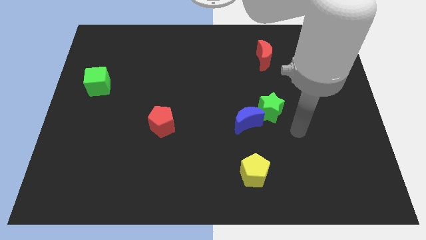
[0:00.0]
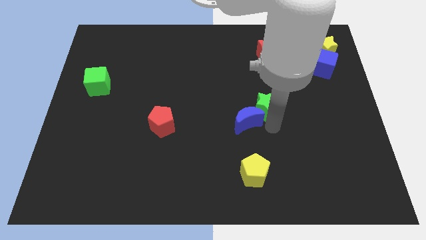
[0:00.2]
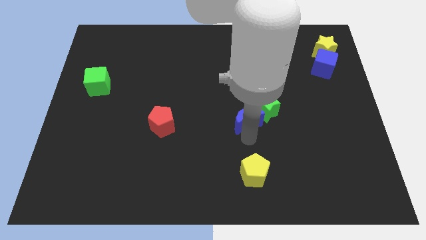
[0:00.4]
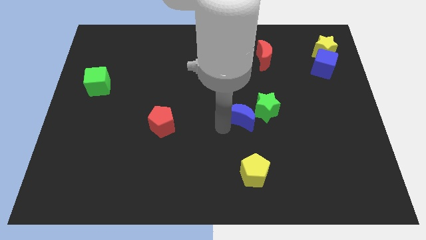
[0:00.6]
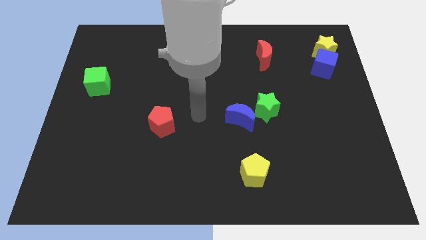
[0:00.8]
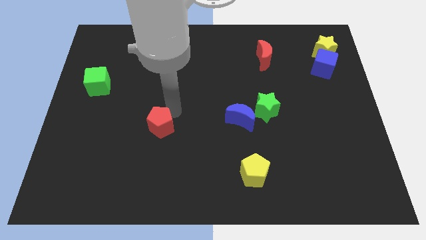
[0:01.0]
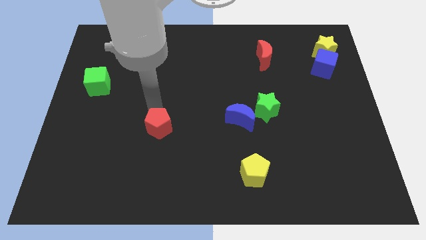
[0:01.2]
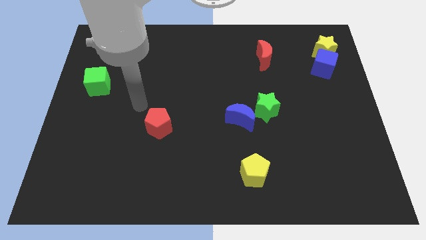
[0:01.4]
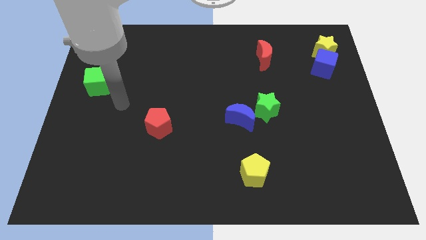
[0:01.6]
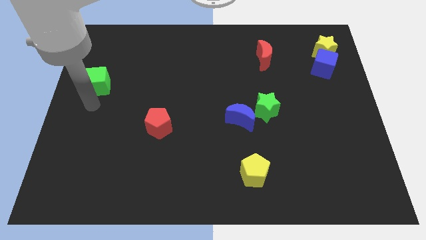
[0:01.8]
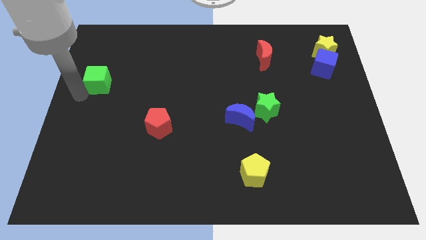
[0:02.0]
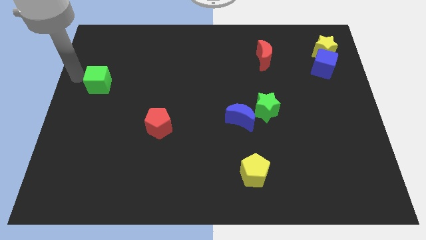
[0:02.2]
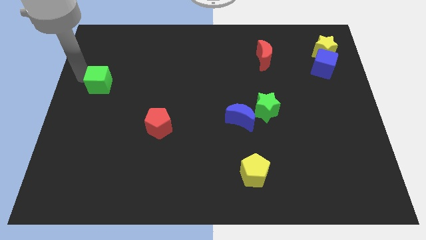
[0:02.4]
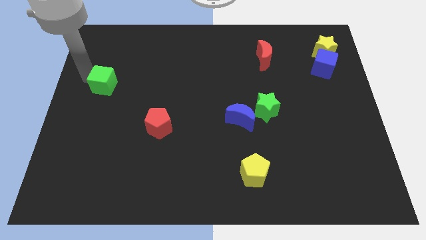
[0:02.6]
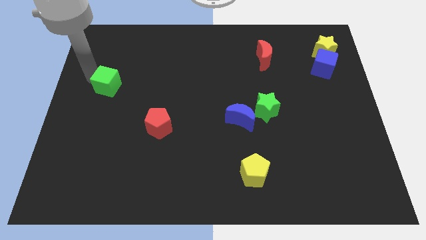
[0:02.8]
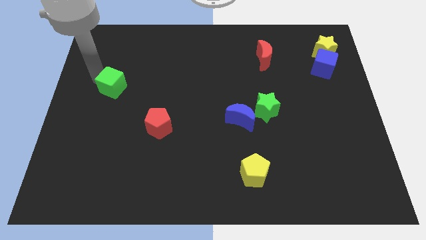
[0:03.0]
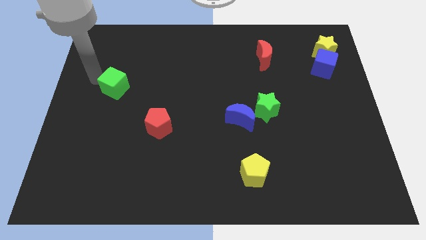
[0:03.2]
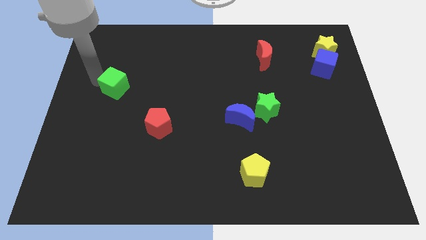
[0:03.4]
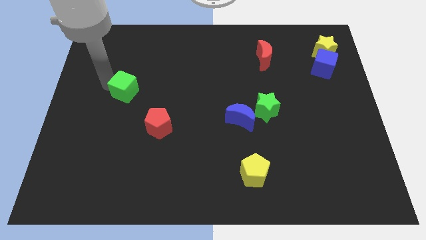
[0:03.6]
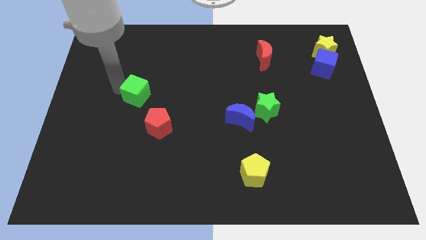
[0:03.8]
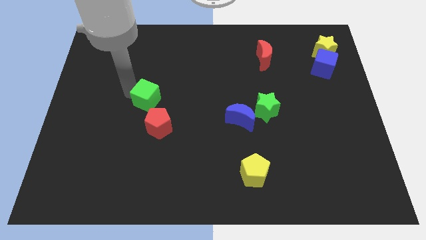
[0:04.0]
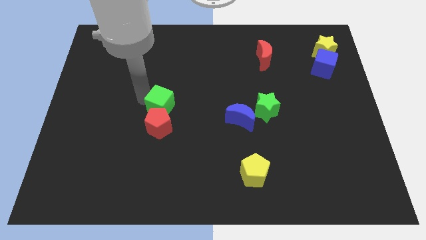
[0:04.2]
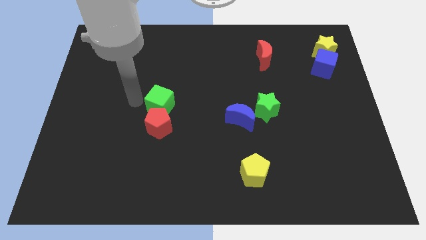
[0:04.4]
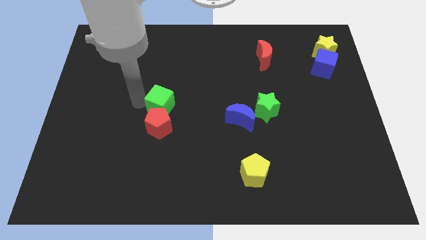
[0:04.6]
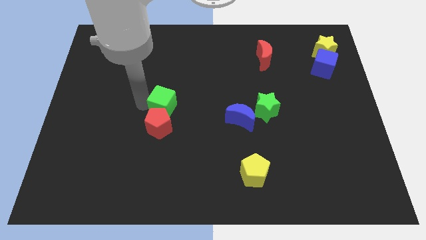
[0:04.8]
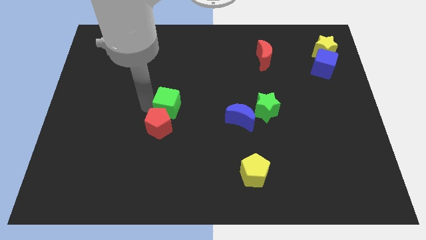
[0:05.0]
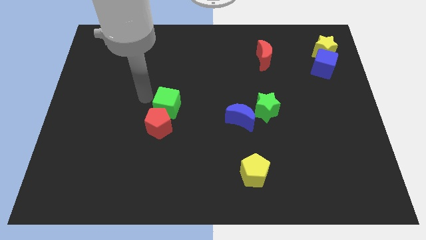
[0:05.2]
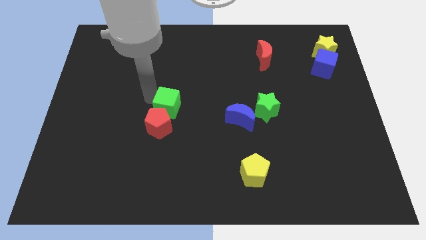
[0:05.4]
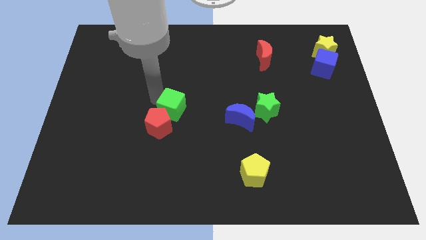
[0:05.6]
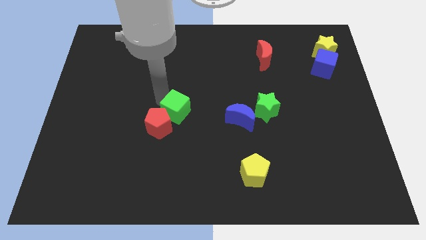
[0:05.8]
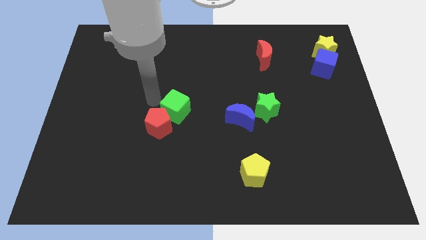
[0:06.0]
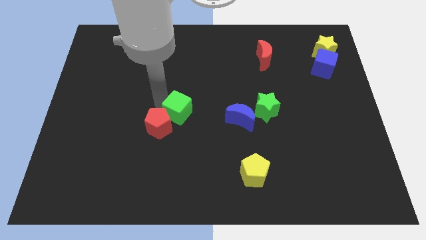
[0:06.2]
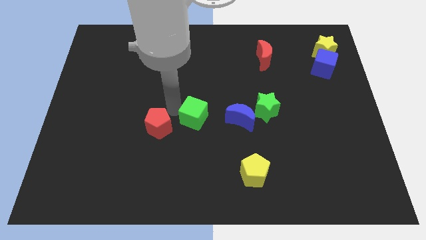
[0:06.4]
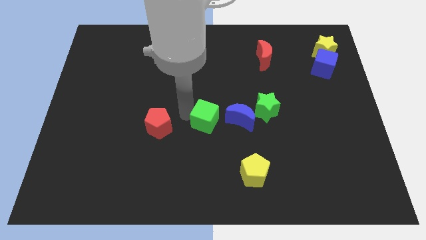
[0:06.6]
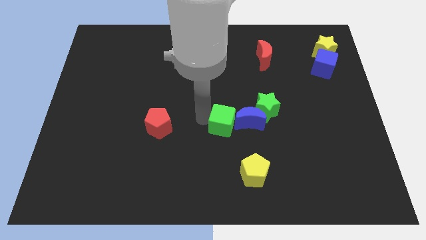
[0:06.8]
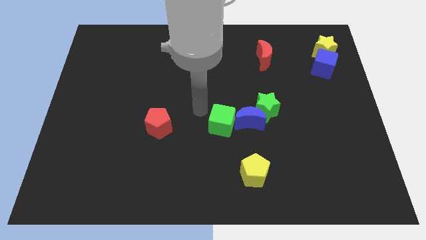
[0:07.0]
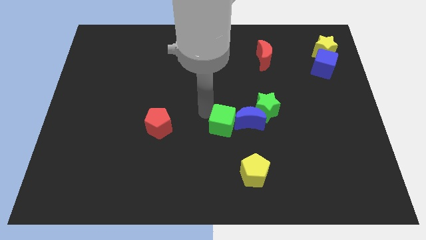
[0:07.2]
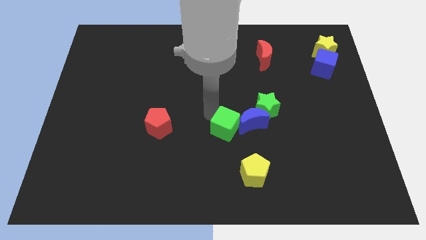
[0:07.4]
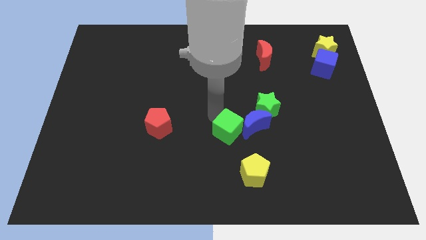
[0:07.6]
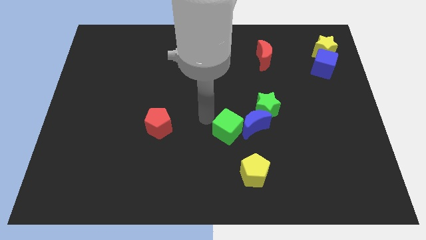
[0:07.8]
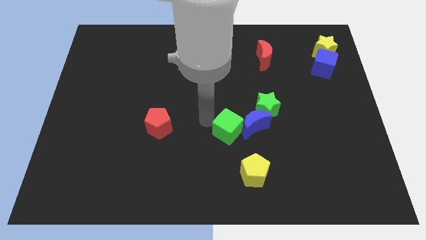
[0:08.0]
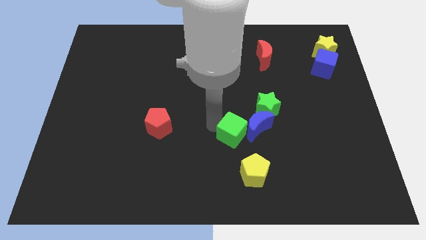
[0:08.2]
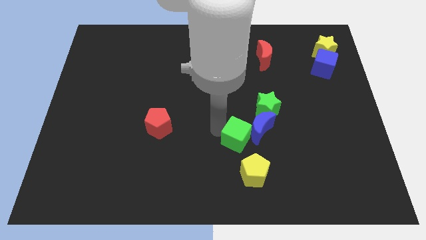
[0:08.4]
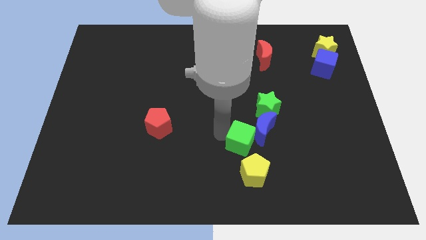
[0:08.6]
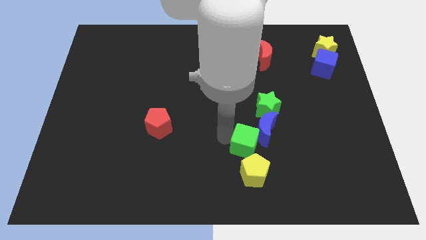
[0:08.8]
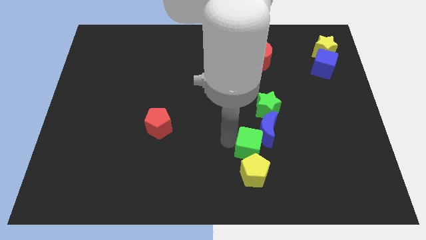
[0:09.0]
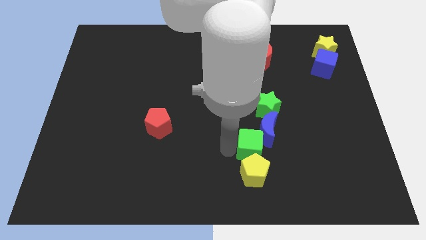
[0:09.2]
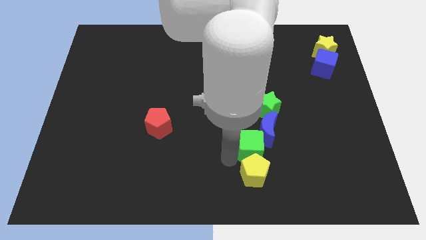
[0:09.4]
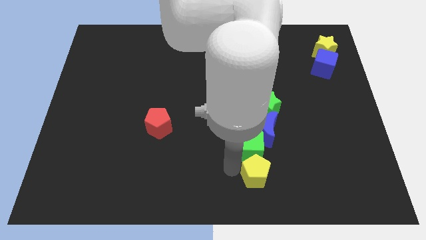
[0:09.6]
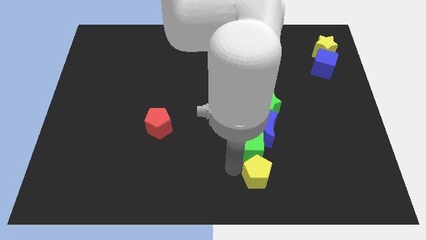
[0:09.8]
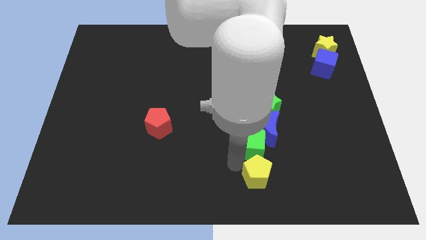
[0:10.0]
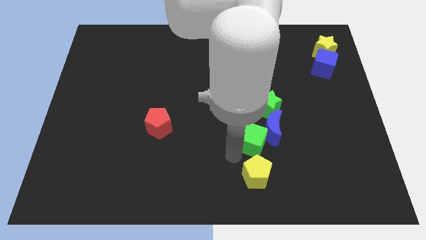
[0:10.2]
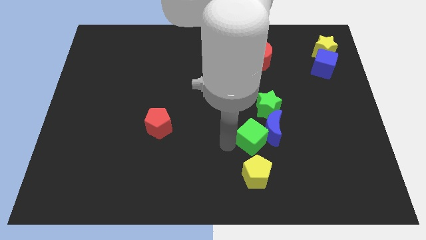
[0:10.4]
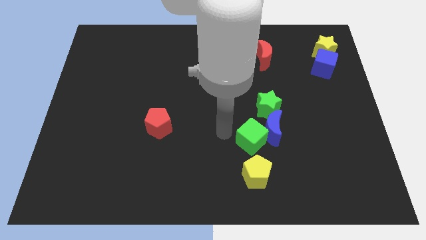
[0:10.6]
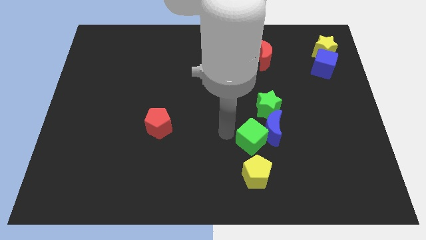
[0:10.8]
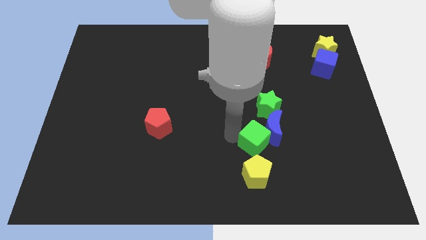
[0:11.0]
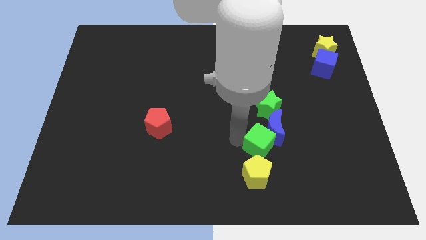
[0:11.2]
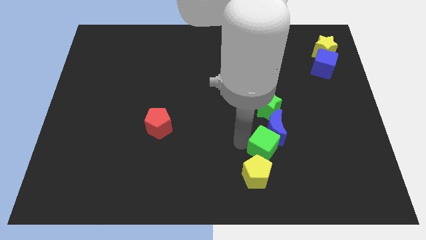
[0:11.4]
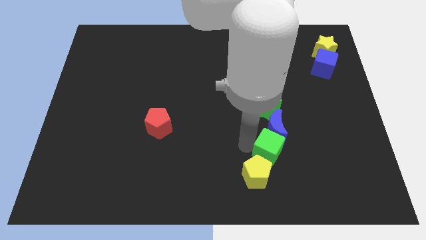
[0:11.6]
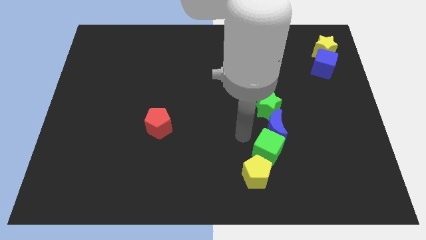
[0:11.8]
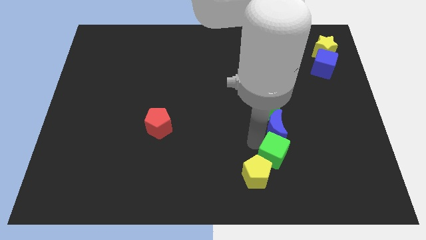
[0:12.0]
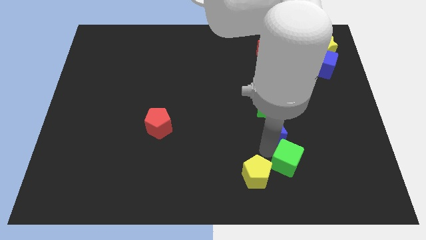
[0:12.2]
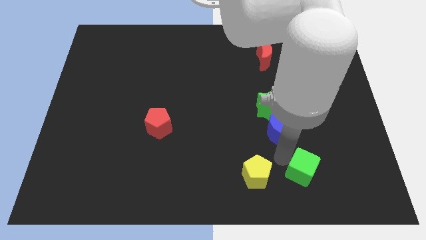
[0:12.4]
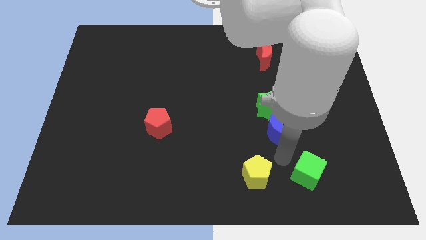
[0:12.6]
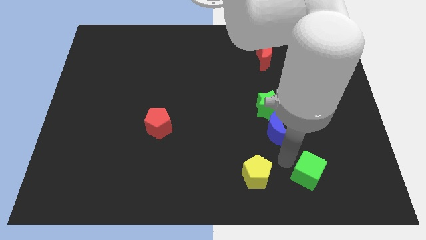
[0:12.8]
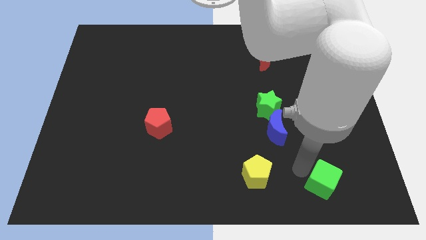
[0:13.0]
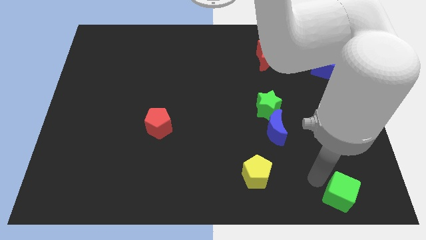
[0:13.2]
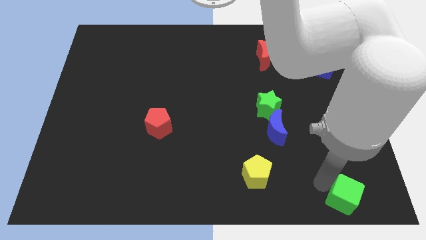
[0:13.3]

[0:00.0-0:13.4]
put the green cube to the bottom right
